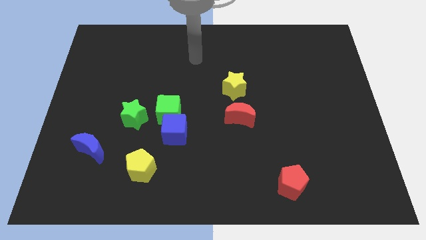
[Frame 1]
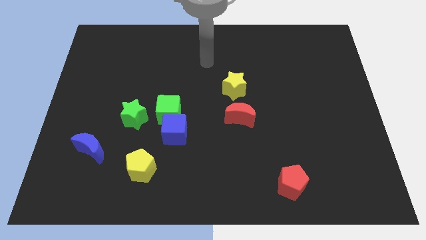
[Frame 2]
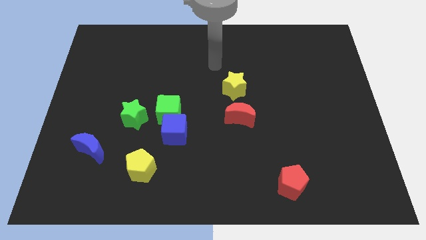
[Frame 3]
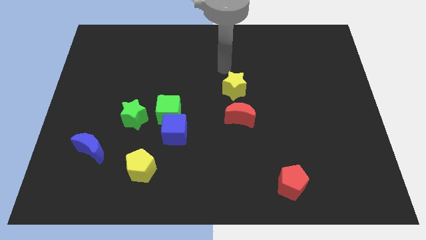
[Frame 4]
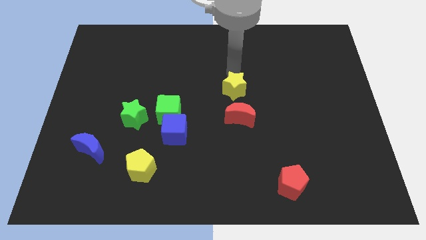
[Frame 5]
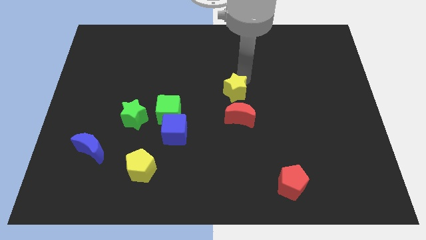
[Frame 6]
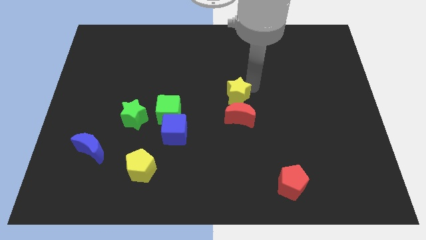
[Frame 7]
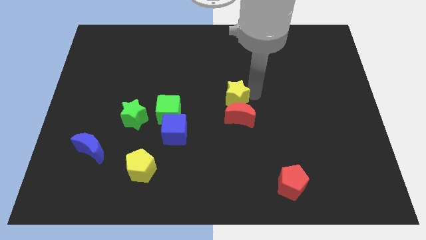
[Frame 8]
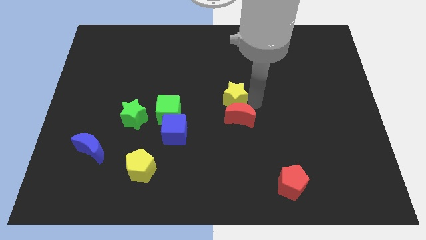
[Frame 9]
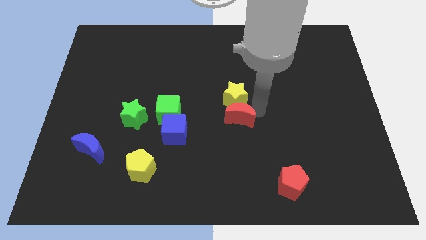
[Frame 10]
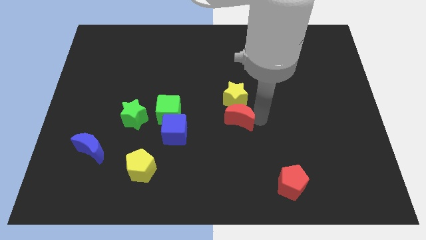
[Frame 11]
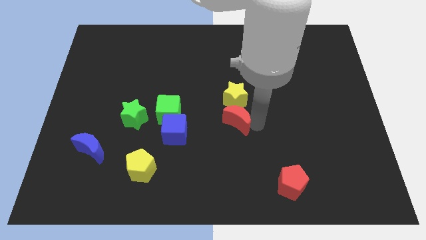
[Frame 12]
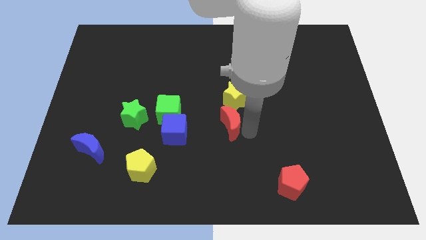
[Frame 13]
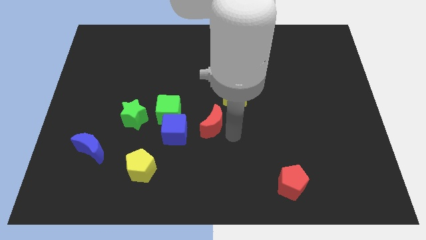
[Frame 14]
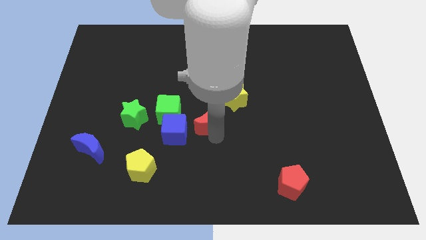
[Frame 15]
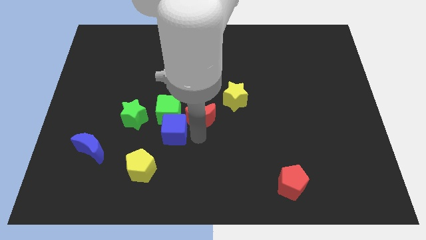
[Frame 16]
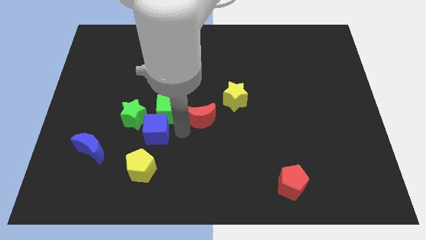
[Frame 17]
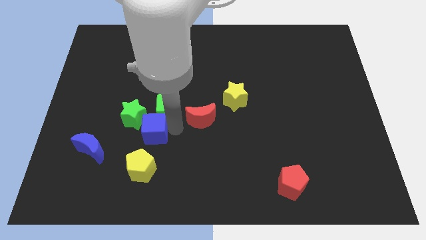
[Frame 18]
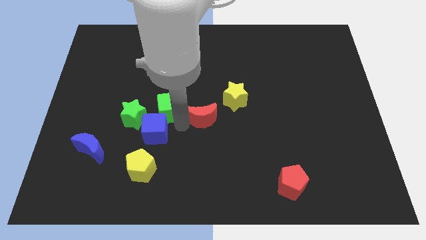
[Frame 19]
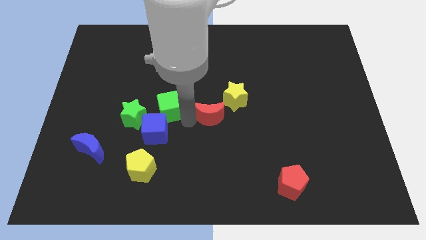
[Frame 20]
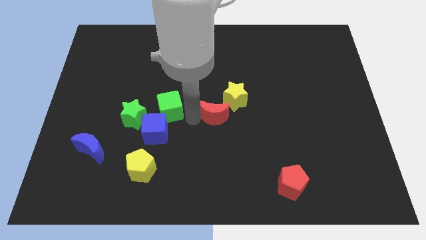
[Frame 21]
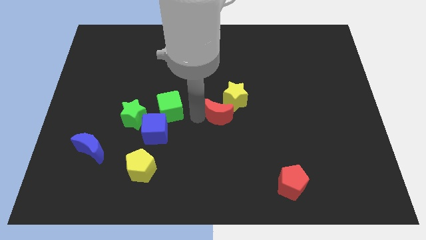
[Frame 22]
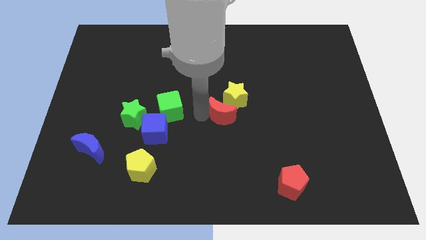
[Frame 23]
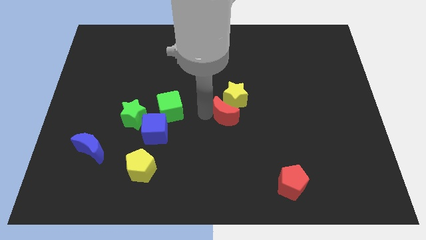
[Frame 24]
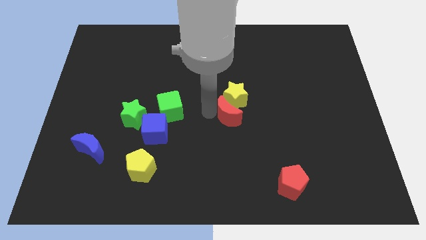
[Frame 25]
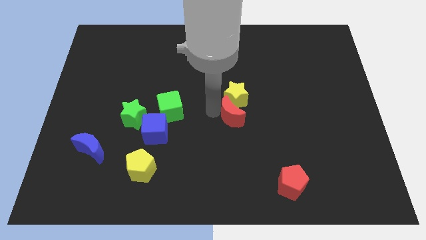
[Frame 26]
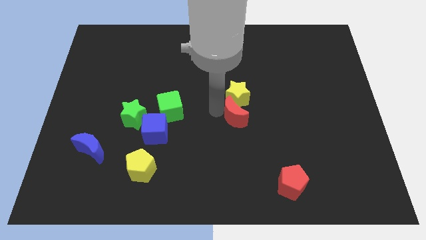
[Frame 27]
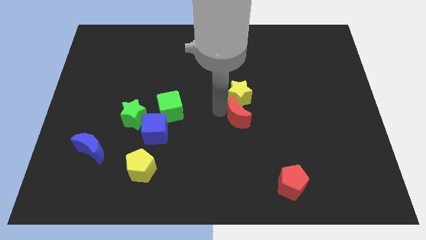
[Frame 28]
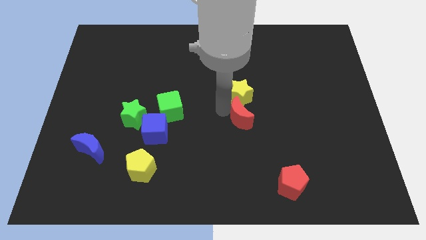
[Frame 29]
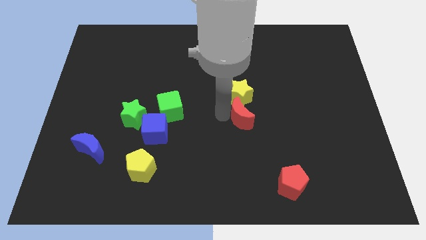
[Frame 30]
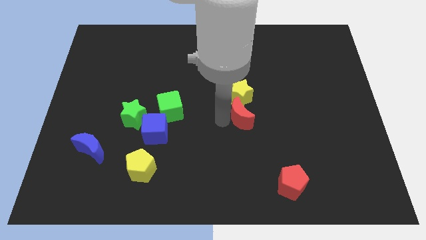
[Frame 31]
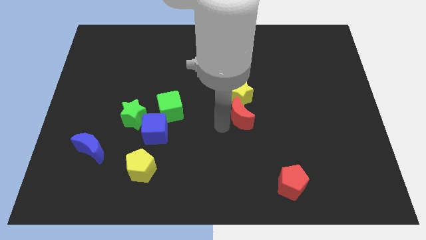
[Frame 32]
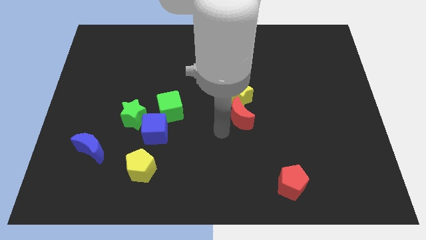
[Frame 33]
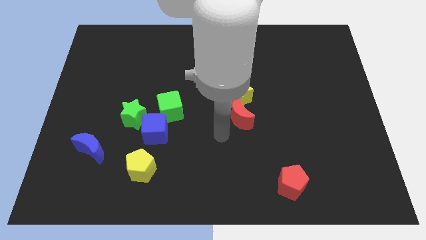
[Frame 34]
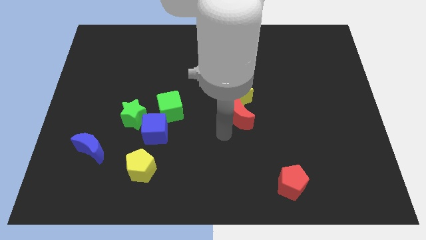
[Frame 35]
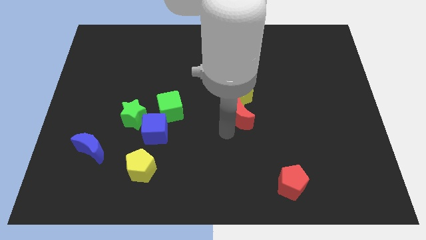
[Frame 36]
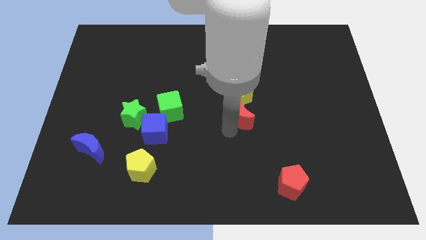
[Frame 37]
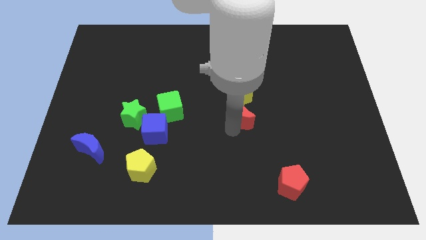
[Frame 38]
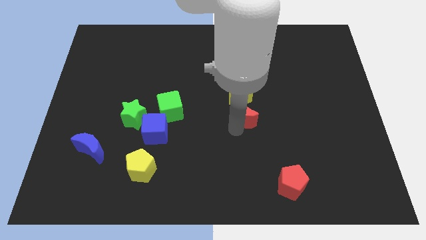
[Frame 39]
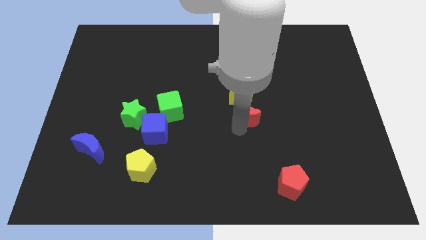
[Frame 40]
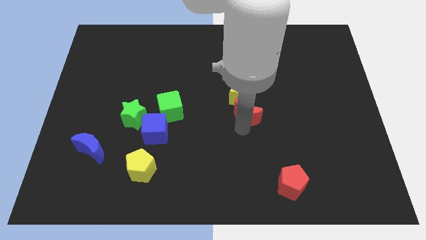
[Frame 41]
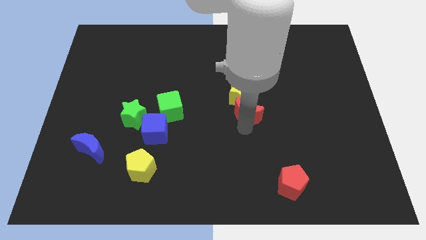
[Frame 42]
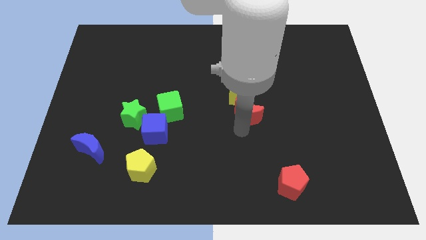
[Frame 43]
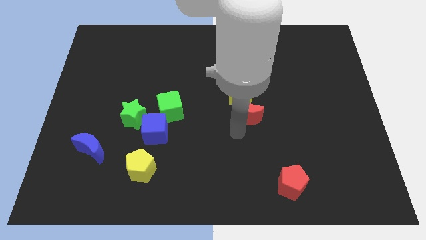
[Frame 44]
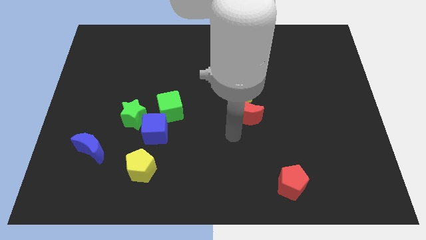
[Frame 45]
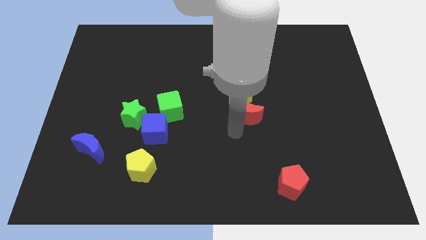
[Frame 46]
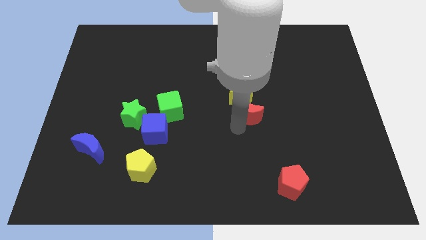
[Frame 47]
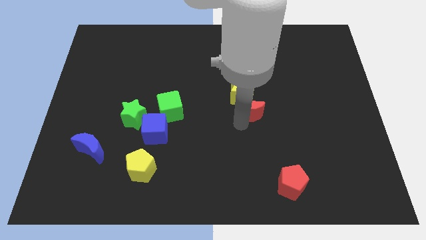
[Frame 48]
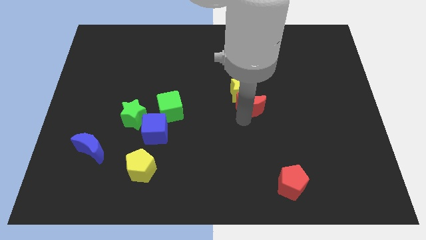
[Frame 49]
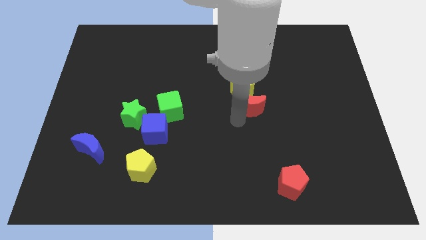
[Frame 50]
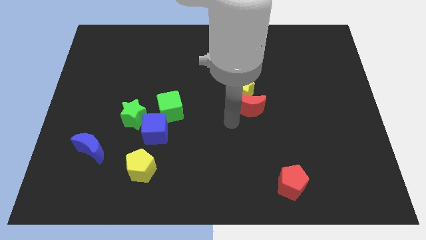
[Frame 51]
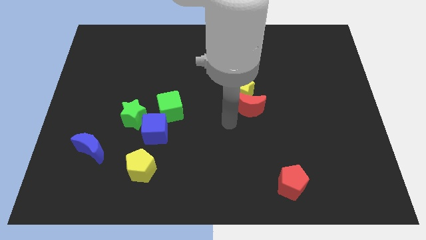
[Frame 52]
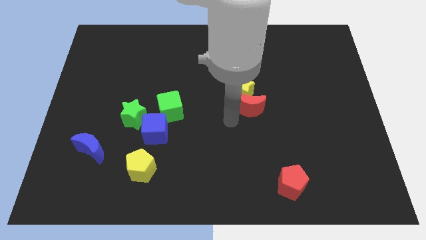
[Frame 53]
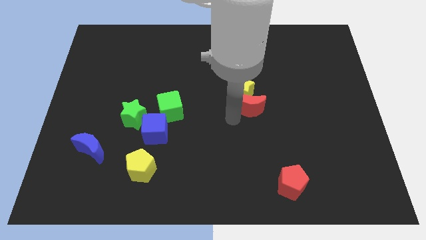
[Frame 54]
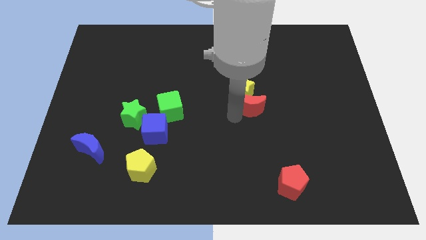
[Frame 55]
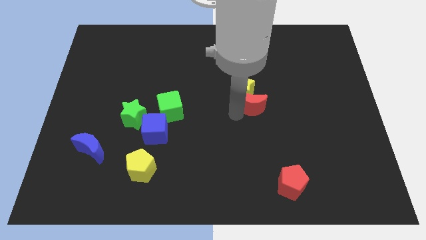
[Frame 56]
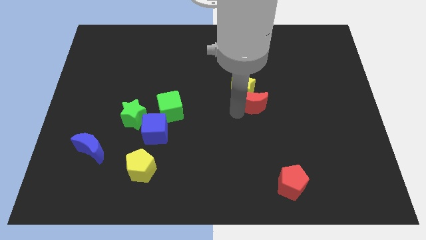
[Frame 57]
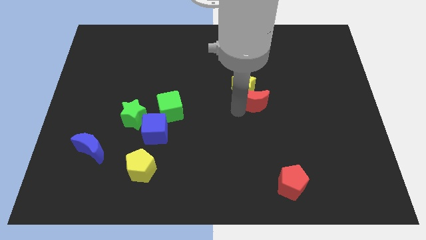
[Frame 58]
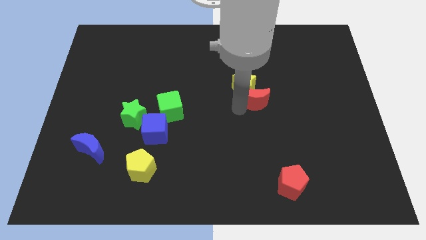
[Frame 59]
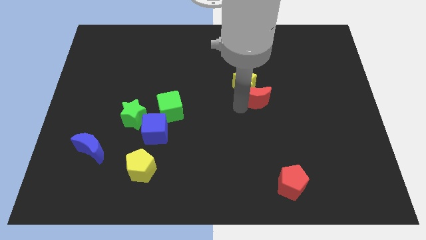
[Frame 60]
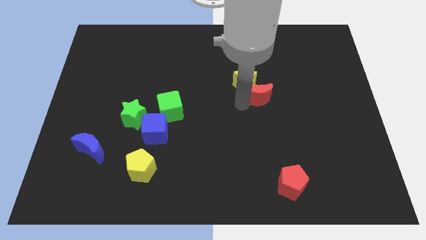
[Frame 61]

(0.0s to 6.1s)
move the red moon diagonally up and to the right a bit

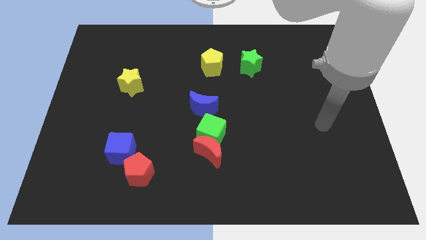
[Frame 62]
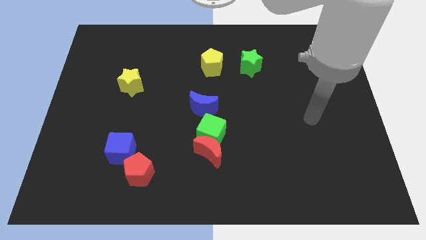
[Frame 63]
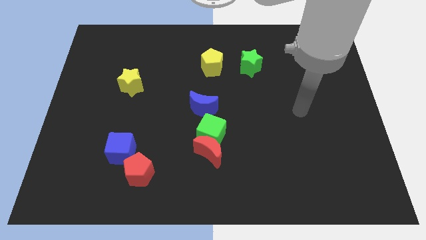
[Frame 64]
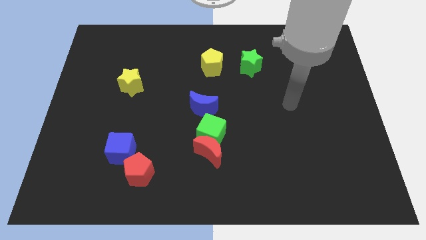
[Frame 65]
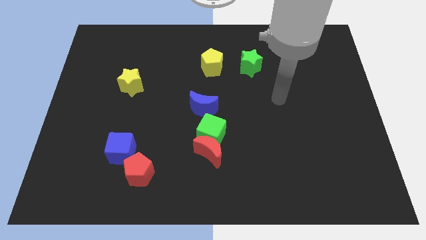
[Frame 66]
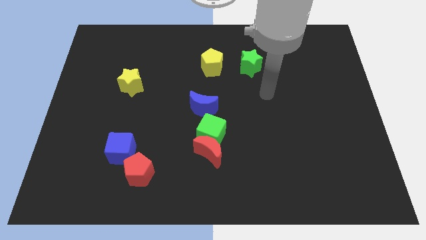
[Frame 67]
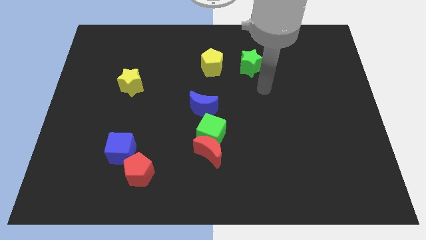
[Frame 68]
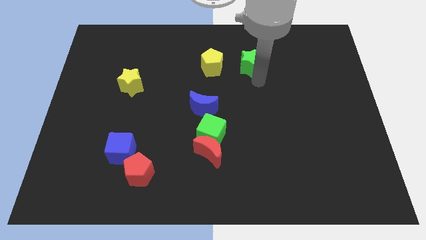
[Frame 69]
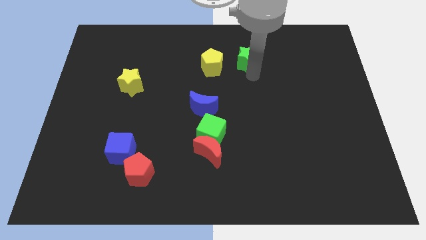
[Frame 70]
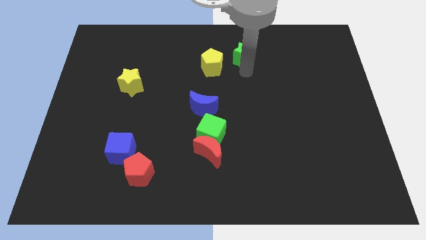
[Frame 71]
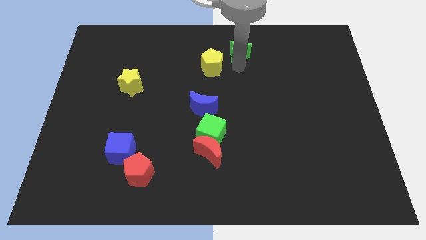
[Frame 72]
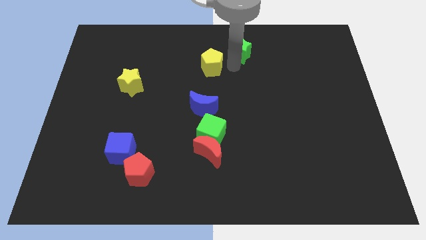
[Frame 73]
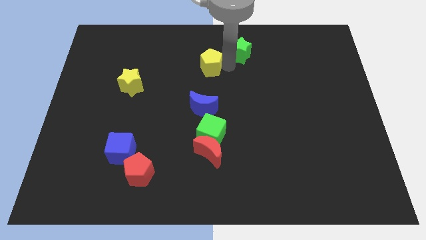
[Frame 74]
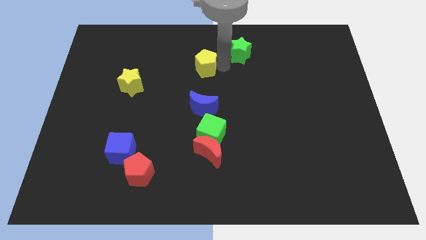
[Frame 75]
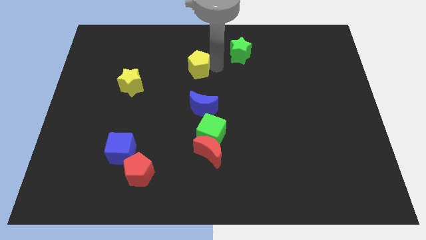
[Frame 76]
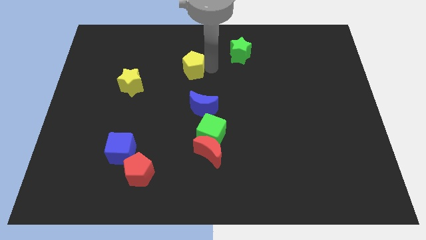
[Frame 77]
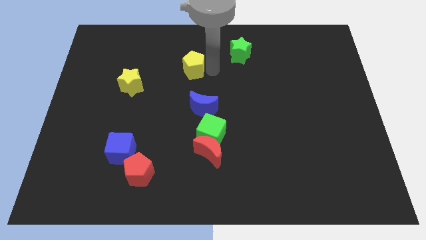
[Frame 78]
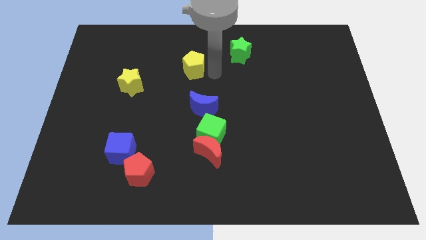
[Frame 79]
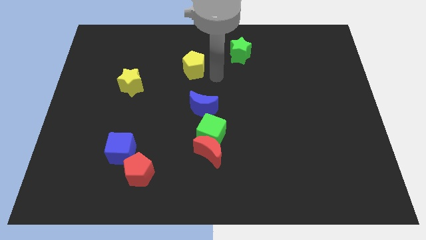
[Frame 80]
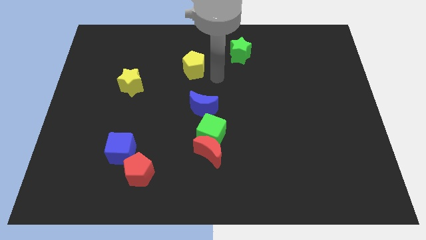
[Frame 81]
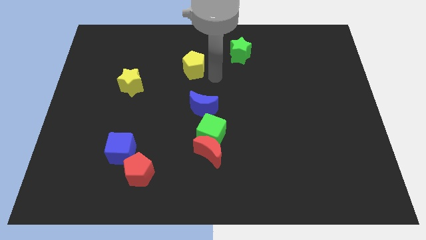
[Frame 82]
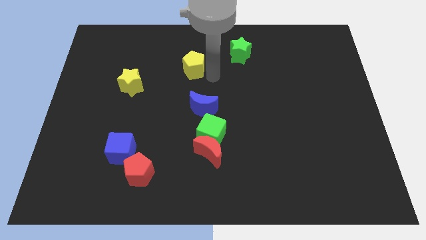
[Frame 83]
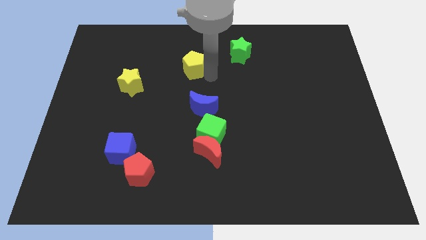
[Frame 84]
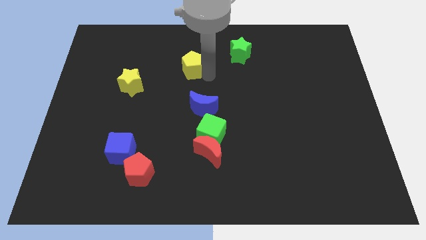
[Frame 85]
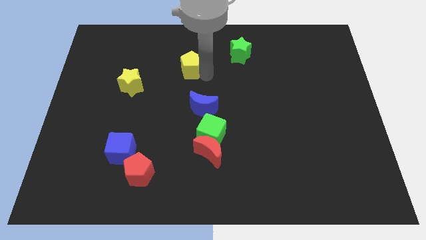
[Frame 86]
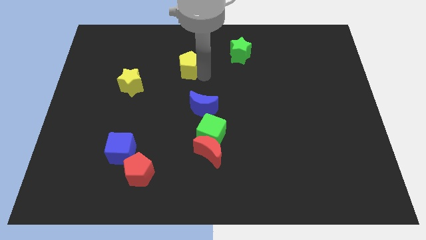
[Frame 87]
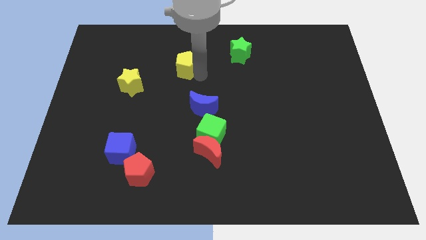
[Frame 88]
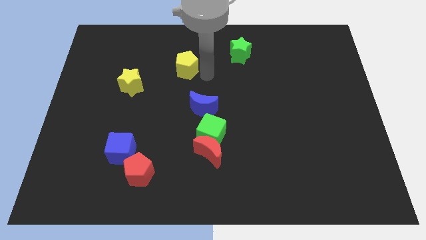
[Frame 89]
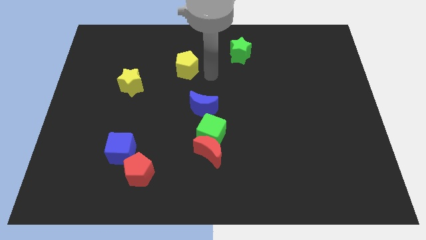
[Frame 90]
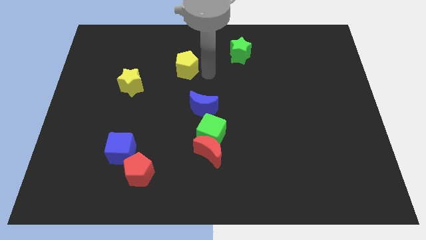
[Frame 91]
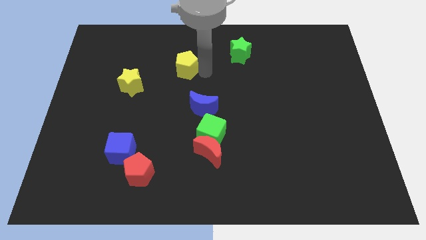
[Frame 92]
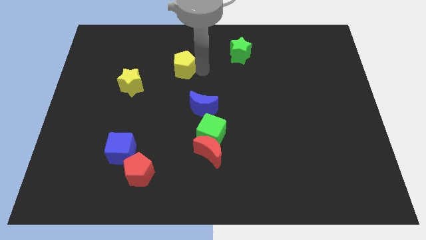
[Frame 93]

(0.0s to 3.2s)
slide the yellow pentagon slightly left
